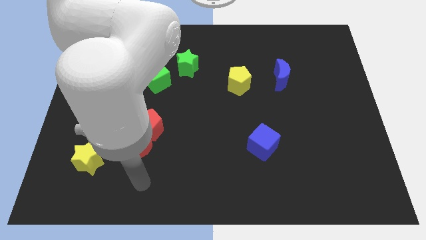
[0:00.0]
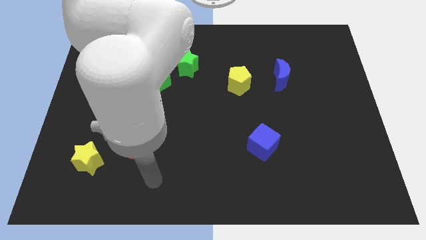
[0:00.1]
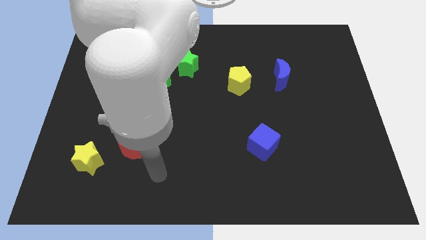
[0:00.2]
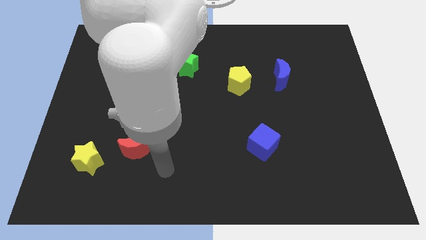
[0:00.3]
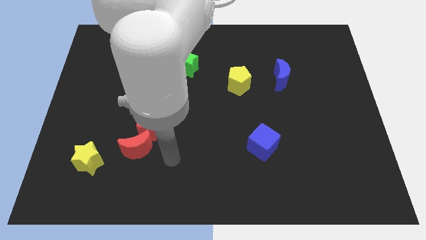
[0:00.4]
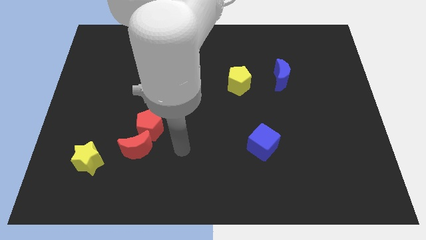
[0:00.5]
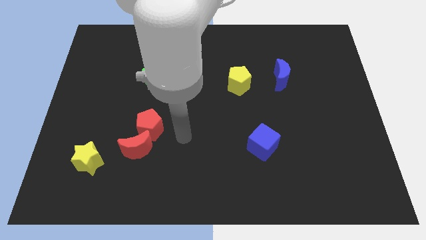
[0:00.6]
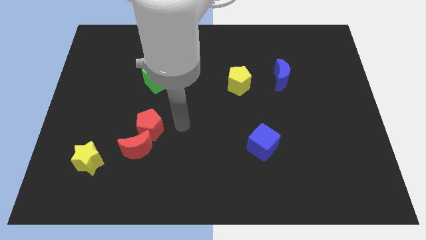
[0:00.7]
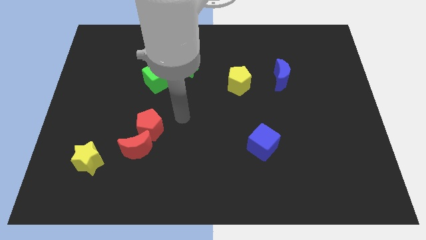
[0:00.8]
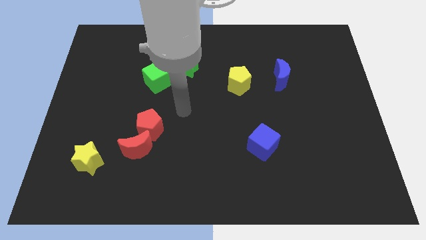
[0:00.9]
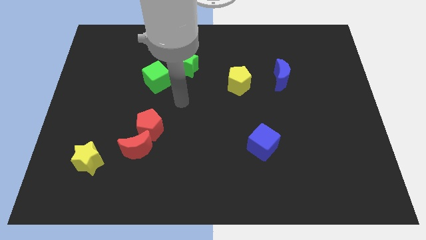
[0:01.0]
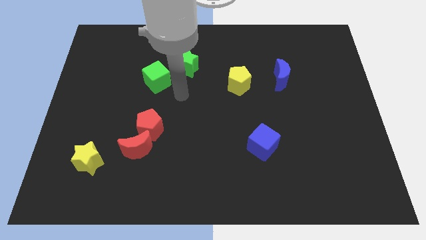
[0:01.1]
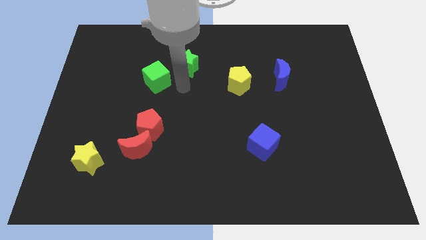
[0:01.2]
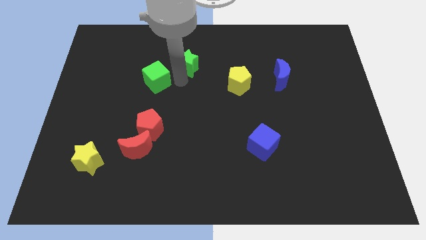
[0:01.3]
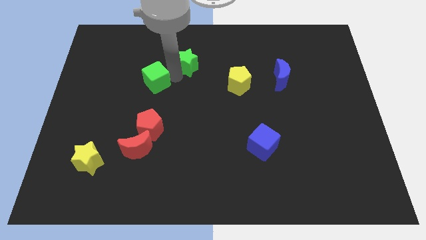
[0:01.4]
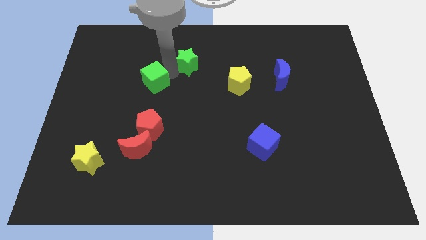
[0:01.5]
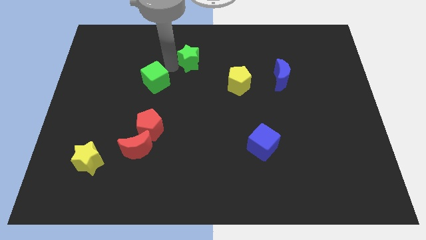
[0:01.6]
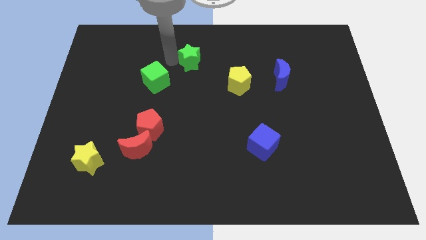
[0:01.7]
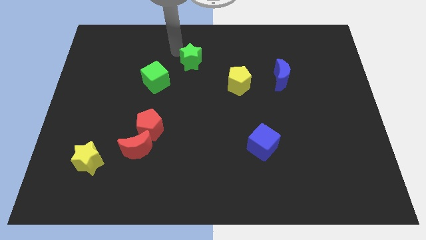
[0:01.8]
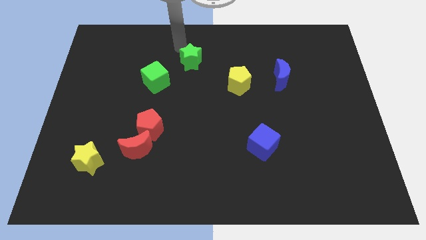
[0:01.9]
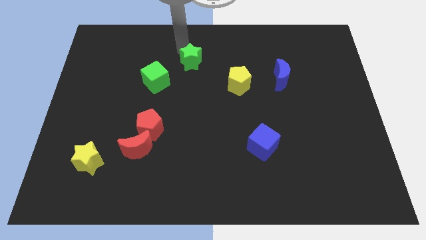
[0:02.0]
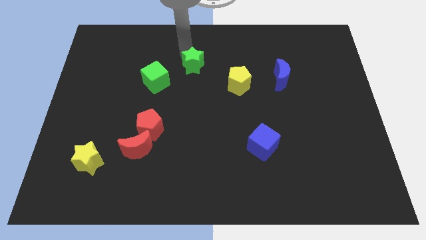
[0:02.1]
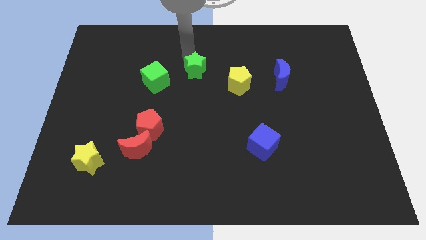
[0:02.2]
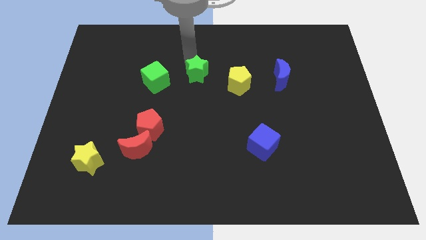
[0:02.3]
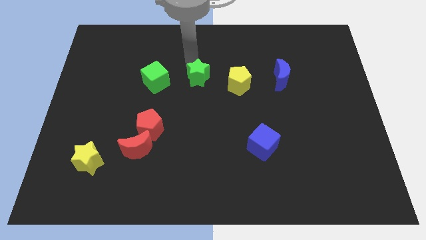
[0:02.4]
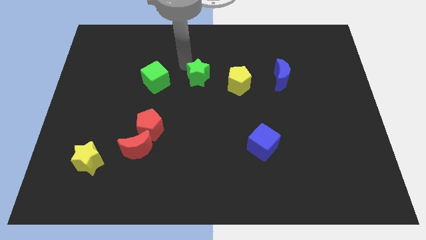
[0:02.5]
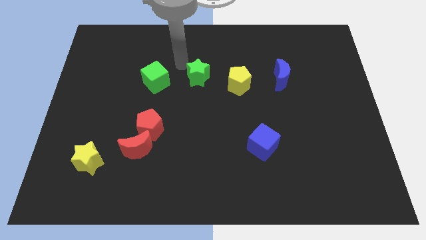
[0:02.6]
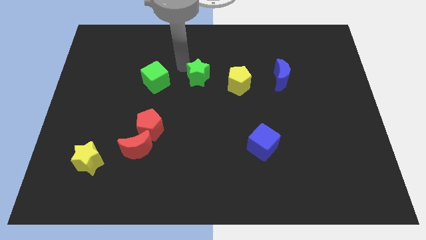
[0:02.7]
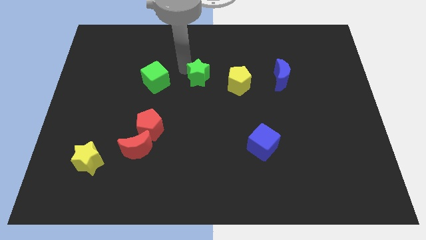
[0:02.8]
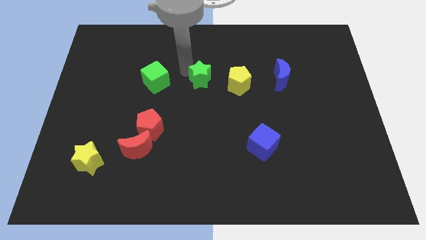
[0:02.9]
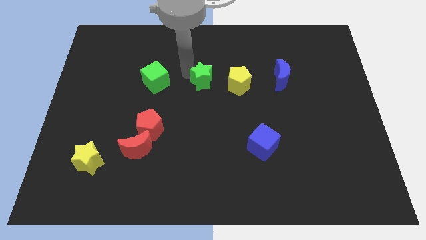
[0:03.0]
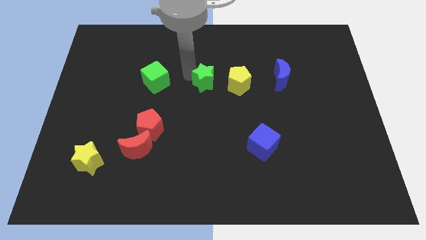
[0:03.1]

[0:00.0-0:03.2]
push the green star downwards and then right a bit

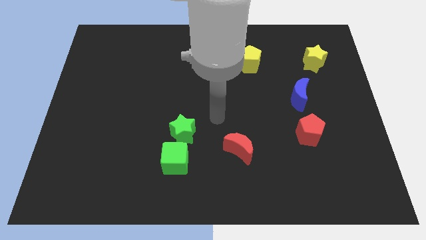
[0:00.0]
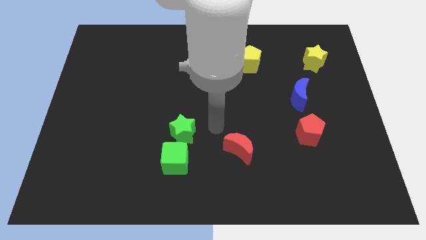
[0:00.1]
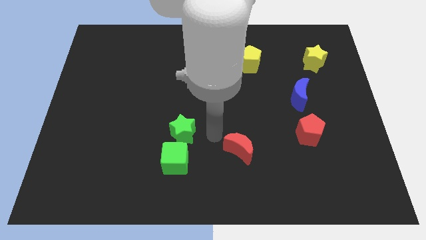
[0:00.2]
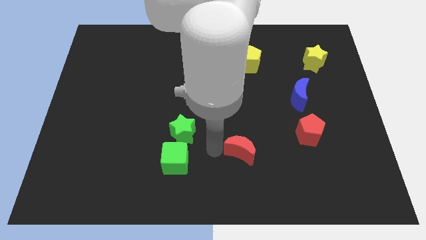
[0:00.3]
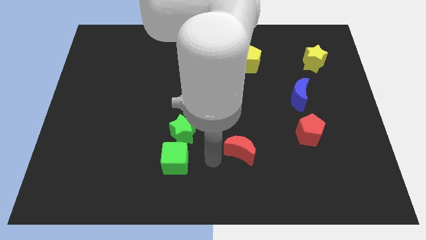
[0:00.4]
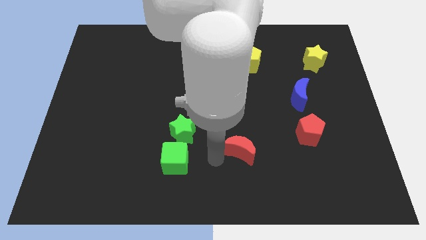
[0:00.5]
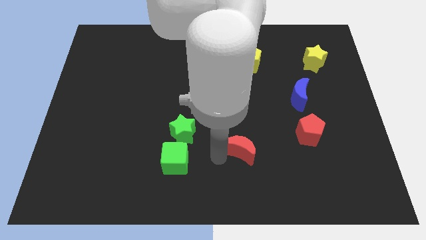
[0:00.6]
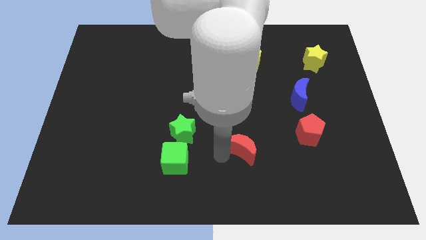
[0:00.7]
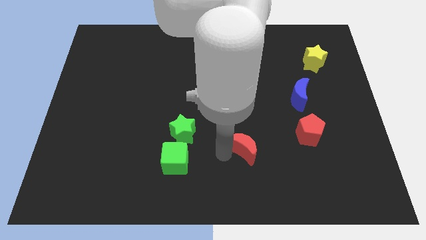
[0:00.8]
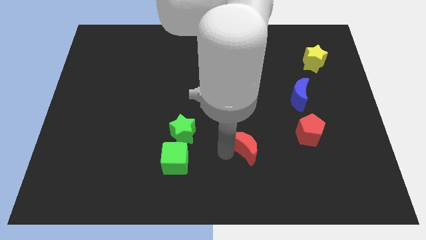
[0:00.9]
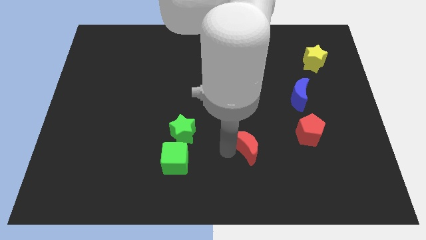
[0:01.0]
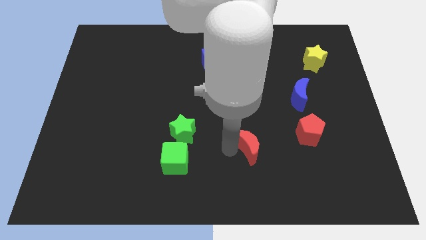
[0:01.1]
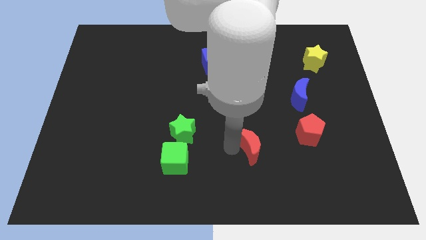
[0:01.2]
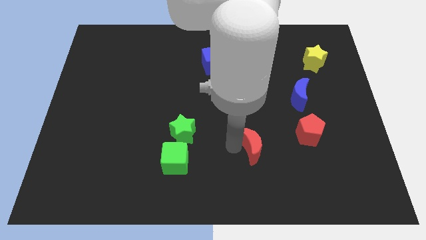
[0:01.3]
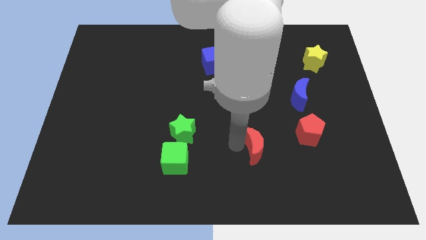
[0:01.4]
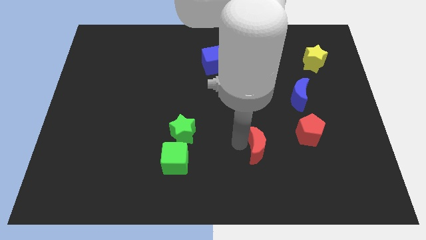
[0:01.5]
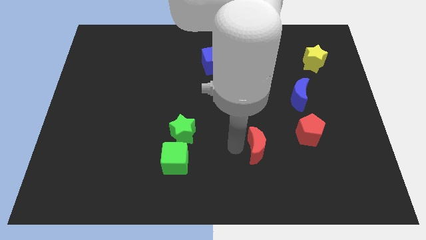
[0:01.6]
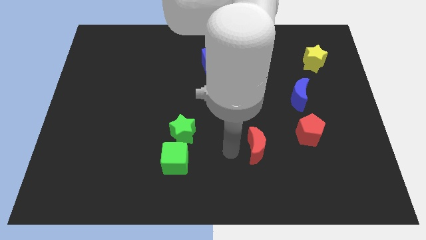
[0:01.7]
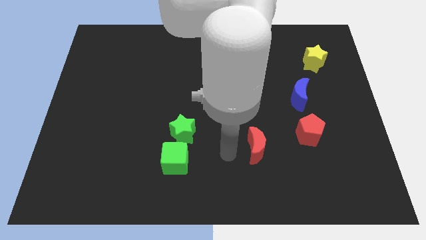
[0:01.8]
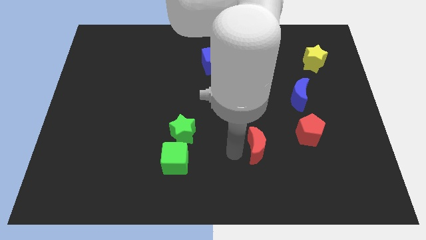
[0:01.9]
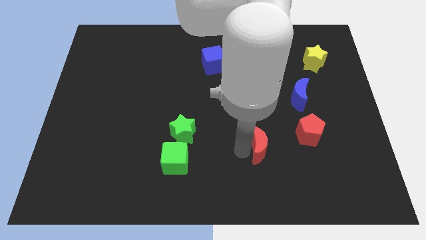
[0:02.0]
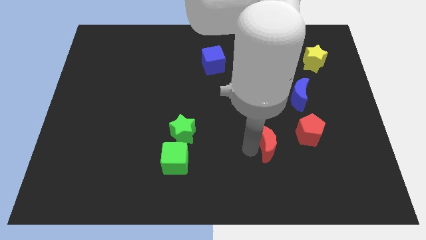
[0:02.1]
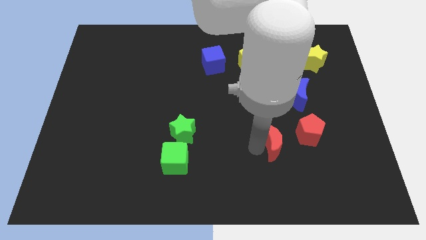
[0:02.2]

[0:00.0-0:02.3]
push the red moon to the right slightly

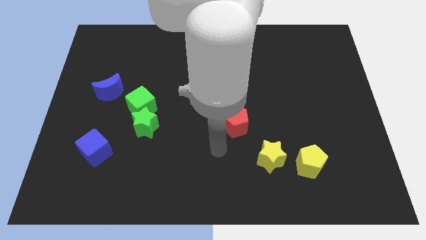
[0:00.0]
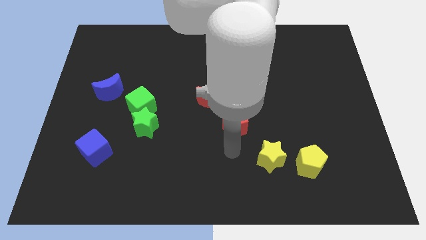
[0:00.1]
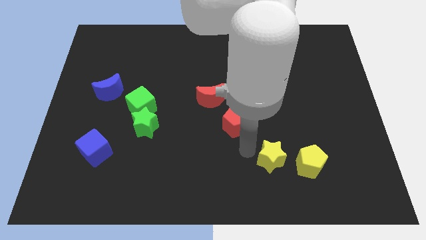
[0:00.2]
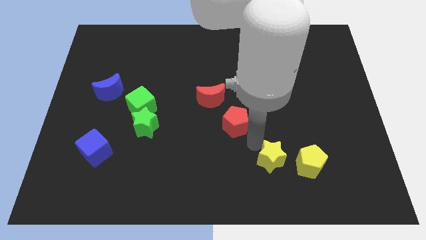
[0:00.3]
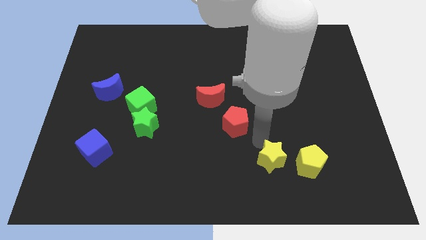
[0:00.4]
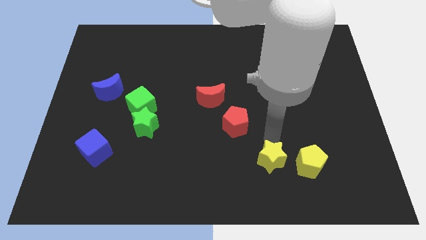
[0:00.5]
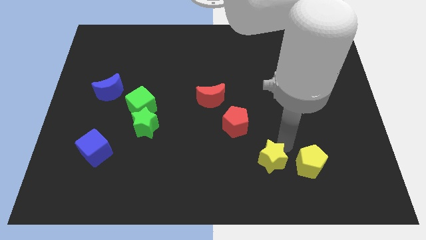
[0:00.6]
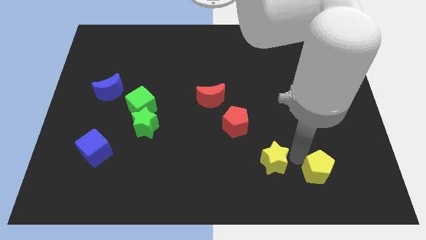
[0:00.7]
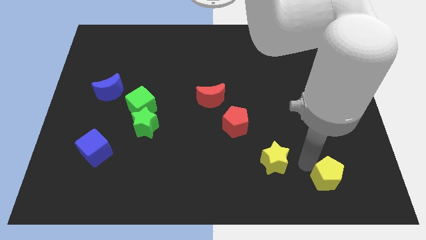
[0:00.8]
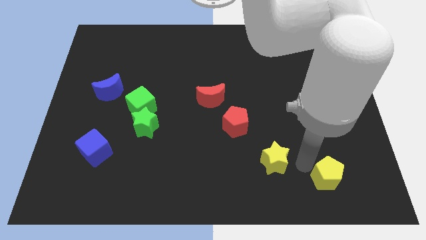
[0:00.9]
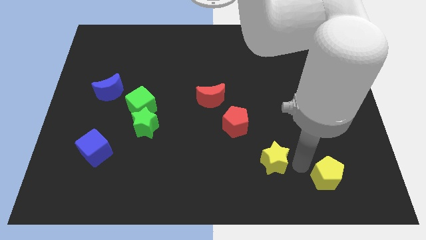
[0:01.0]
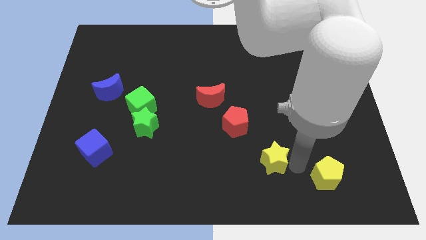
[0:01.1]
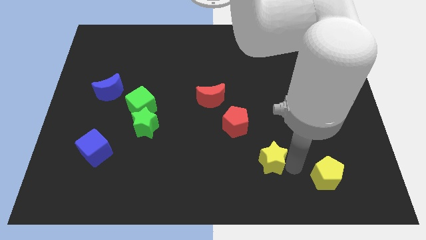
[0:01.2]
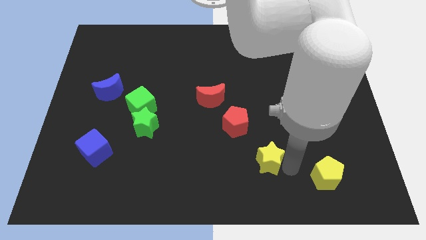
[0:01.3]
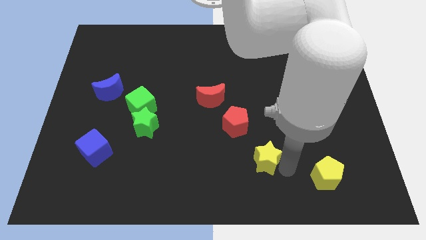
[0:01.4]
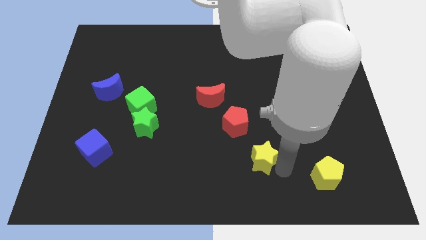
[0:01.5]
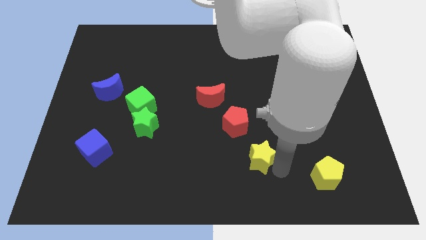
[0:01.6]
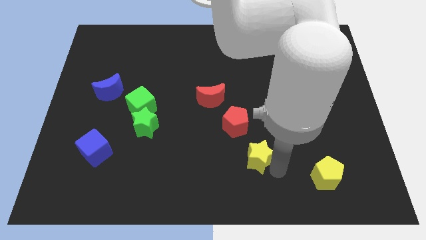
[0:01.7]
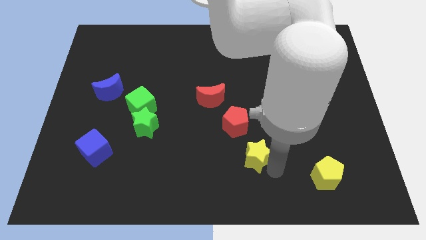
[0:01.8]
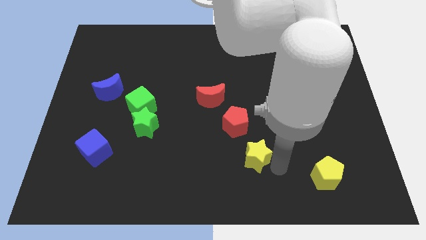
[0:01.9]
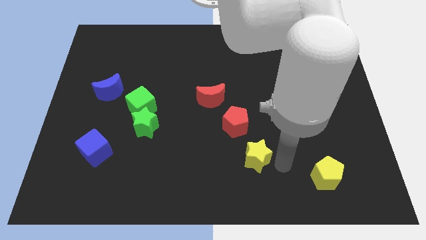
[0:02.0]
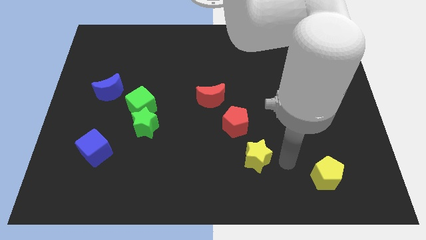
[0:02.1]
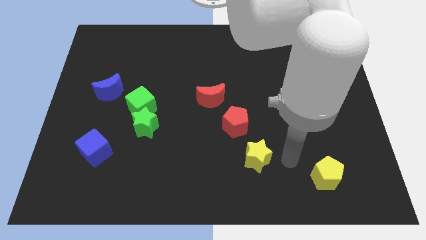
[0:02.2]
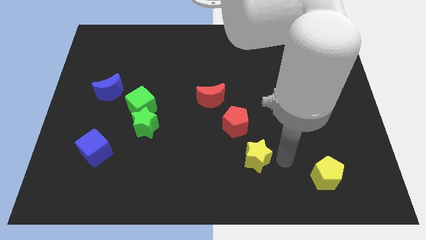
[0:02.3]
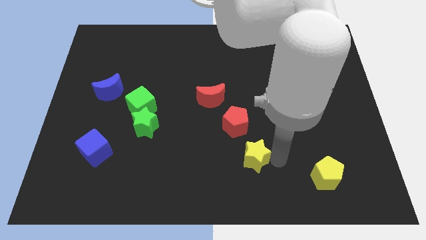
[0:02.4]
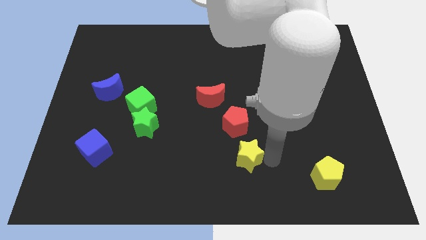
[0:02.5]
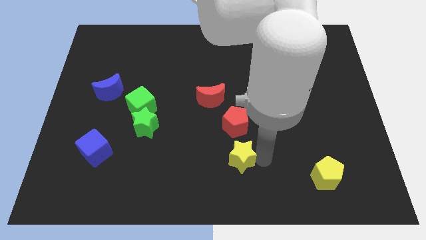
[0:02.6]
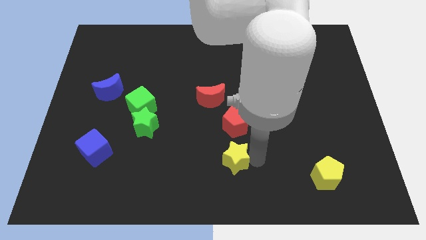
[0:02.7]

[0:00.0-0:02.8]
push the yellow star somewhat left

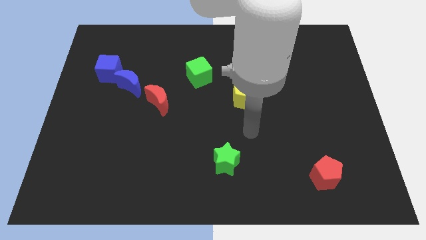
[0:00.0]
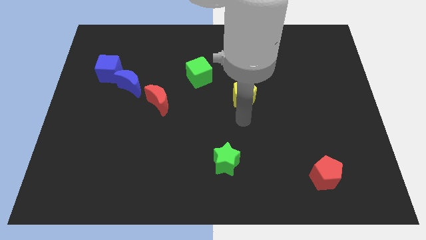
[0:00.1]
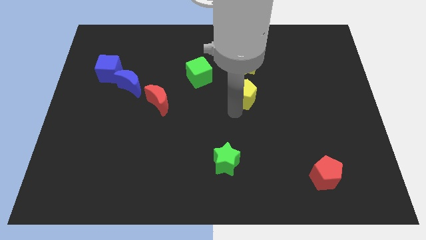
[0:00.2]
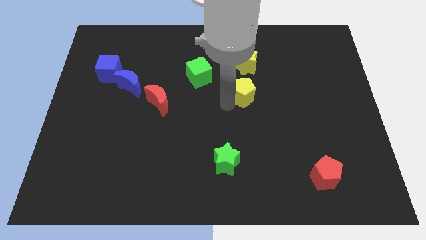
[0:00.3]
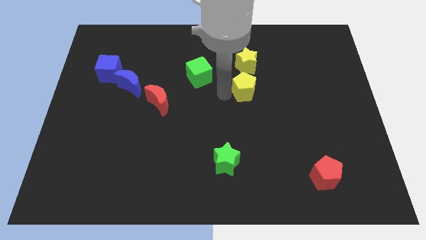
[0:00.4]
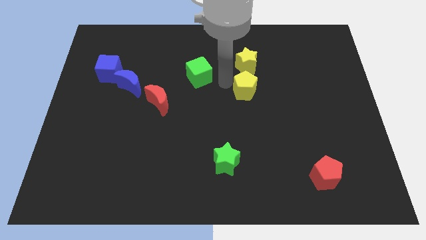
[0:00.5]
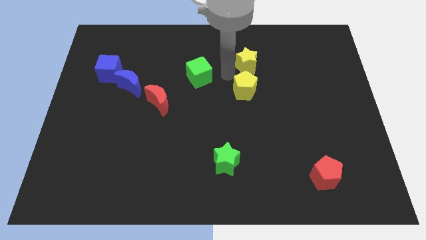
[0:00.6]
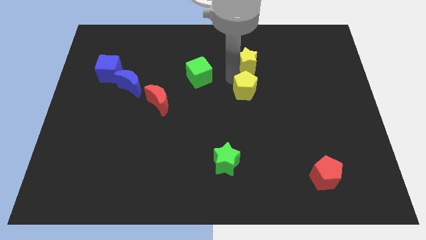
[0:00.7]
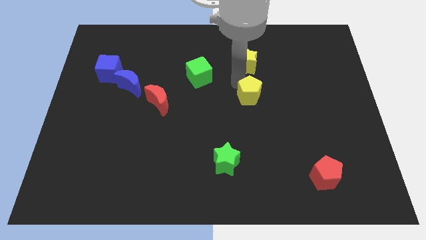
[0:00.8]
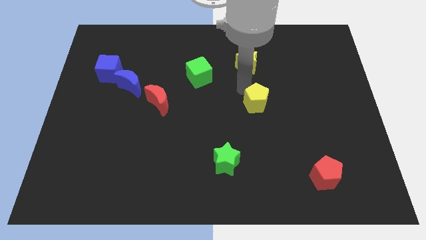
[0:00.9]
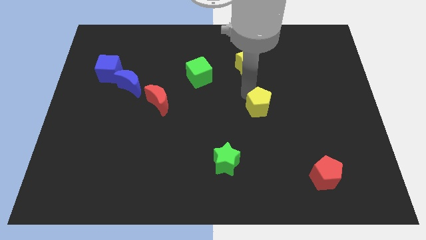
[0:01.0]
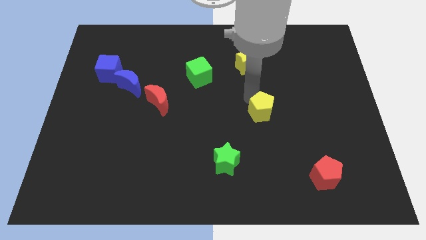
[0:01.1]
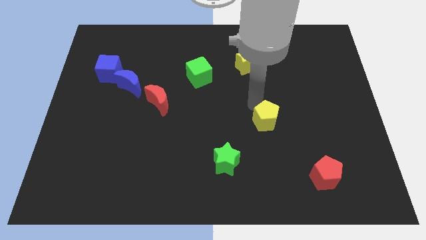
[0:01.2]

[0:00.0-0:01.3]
slightly move the yellow pentagon downwards and to the right
